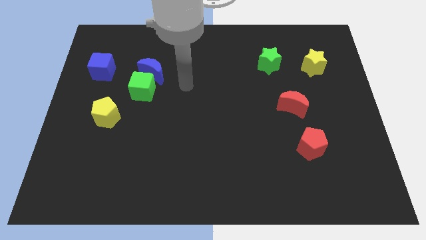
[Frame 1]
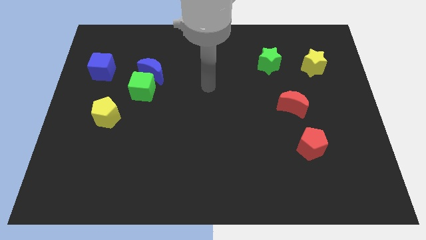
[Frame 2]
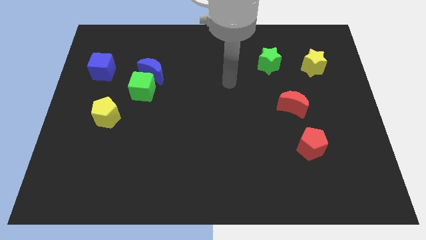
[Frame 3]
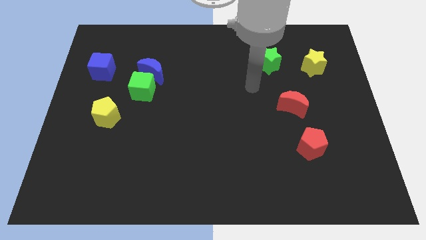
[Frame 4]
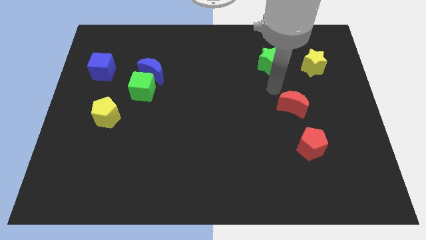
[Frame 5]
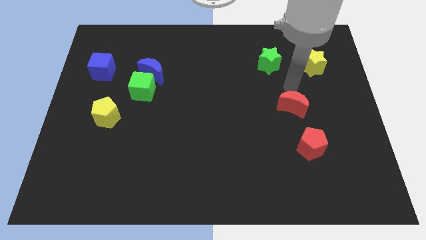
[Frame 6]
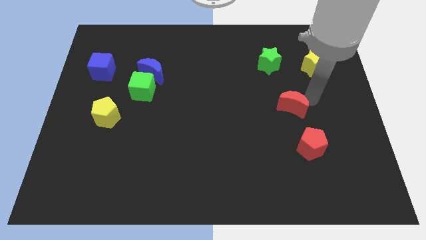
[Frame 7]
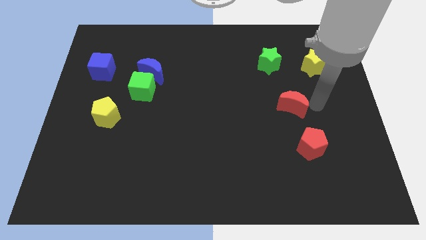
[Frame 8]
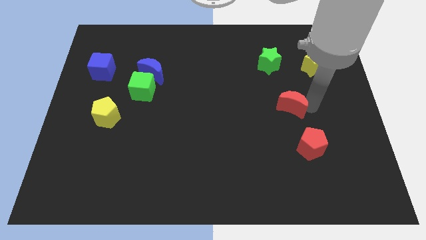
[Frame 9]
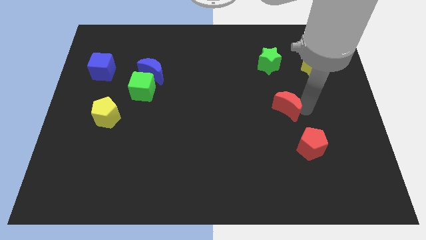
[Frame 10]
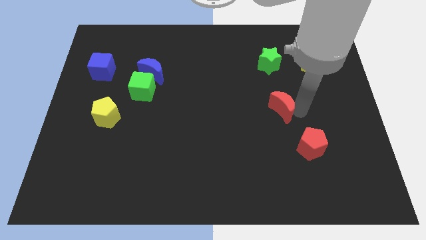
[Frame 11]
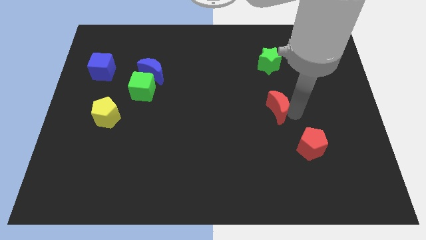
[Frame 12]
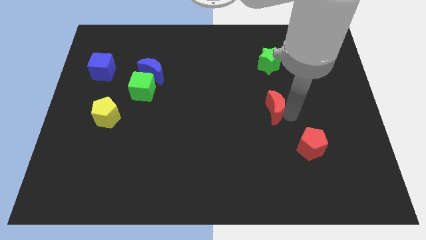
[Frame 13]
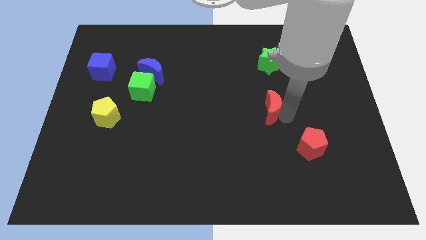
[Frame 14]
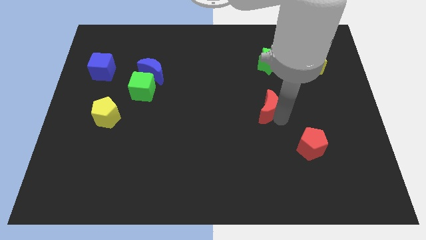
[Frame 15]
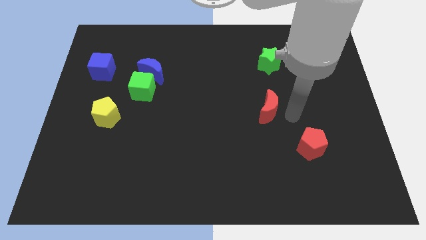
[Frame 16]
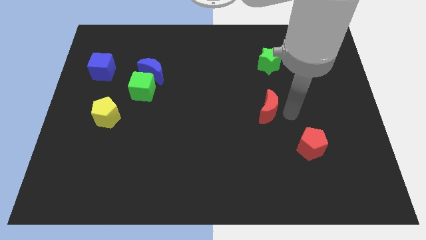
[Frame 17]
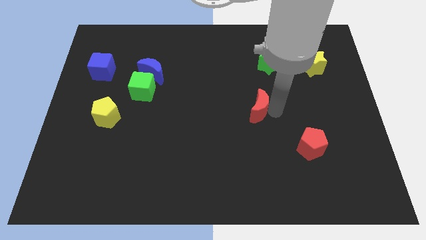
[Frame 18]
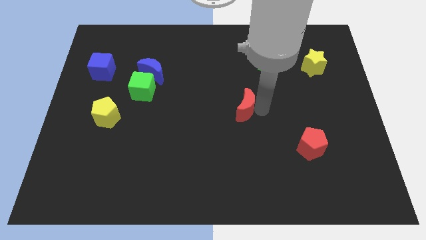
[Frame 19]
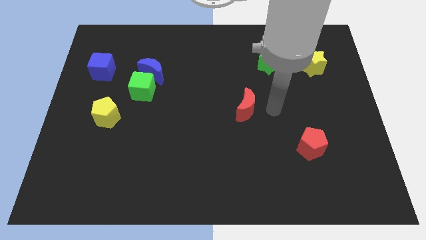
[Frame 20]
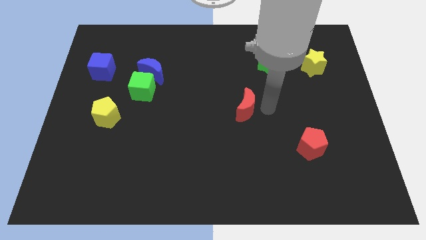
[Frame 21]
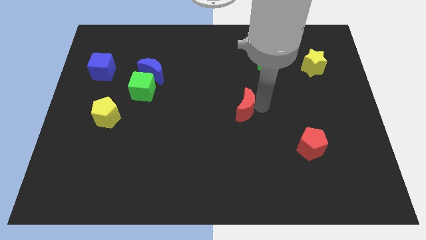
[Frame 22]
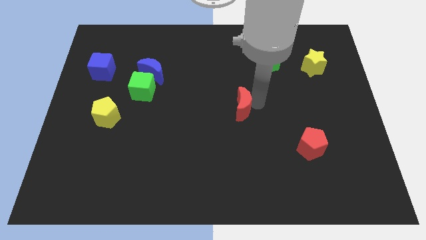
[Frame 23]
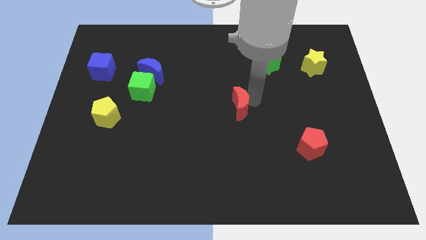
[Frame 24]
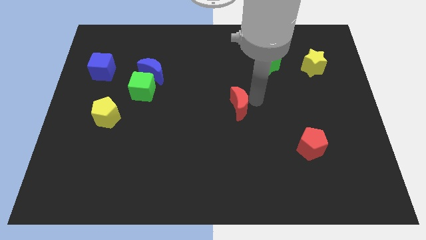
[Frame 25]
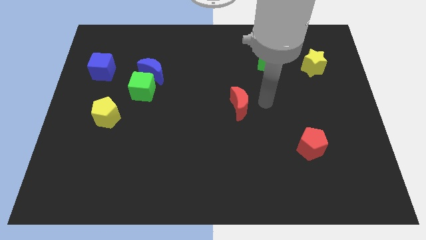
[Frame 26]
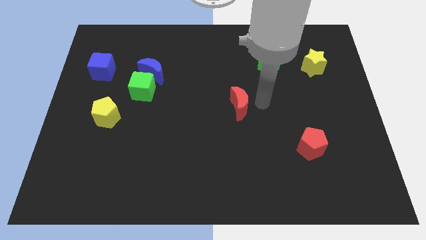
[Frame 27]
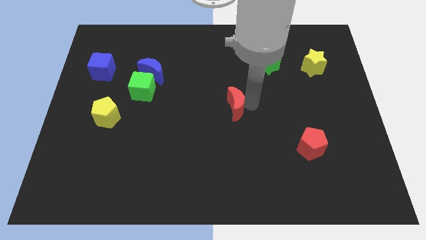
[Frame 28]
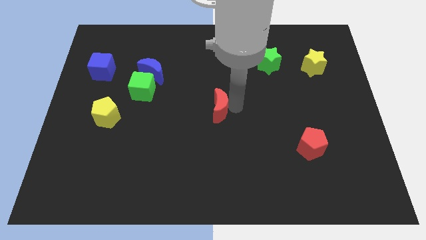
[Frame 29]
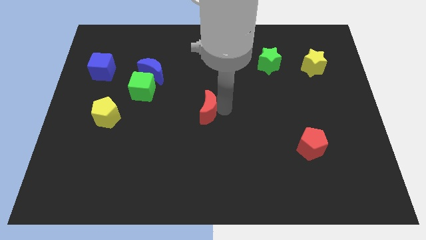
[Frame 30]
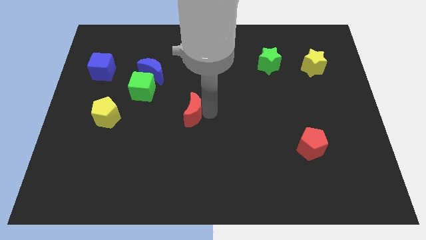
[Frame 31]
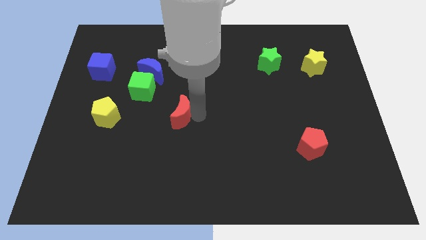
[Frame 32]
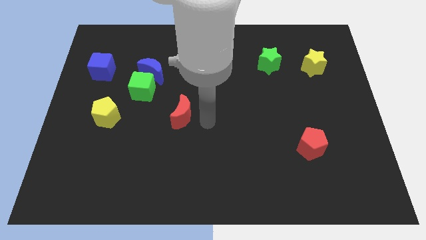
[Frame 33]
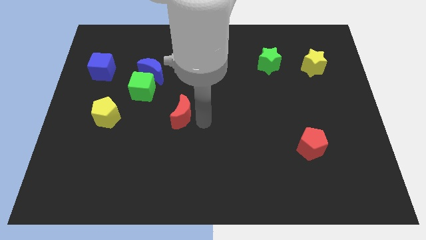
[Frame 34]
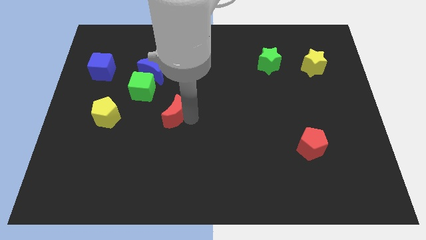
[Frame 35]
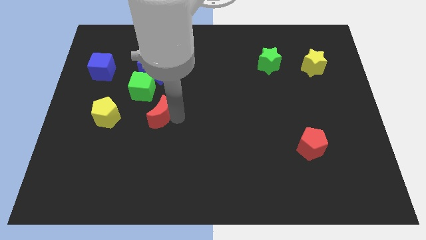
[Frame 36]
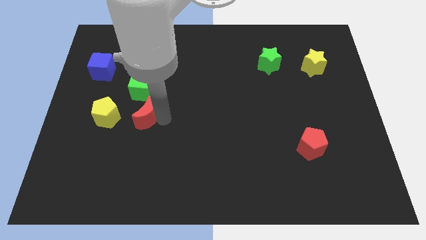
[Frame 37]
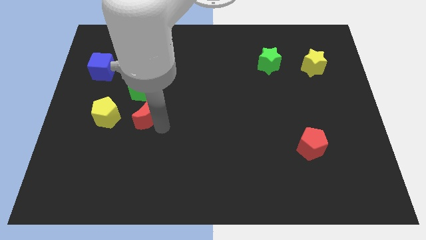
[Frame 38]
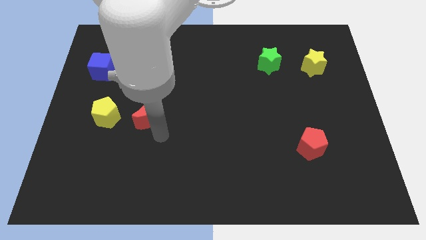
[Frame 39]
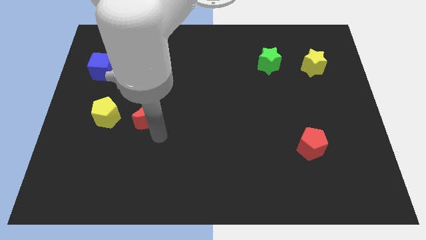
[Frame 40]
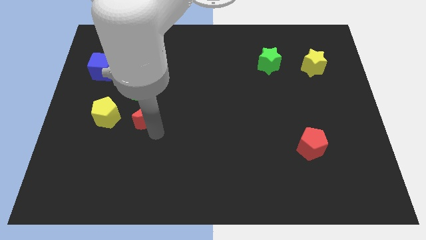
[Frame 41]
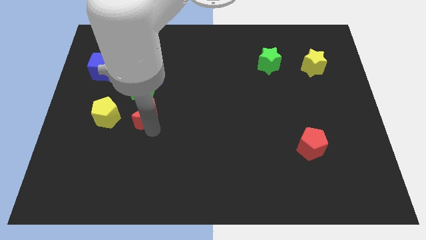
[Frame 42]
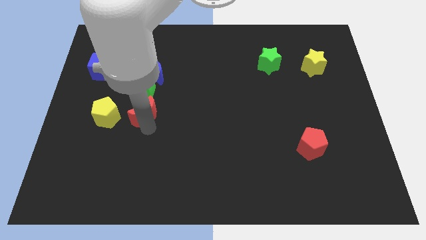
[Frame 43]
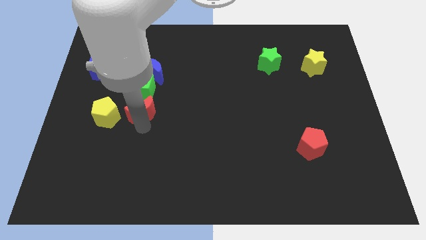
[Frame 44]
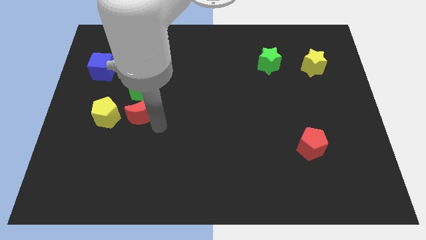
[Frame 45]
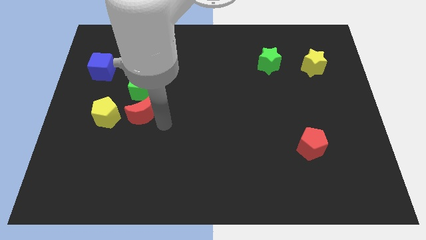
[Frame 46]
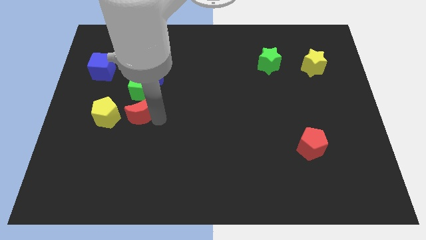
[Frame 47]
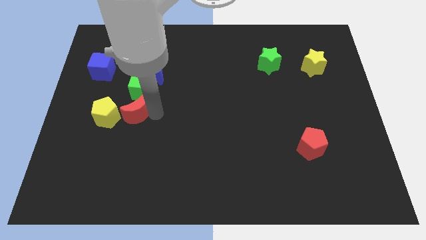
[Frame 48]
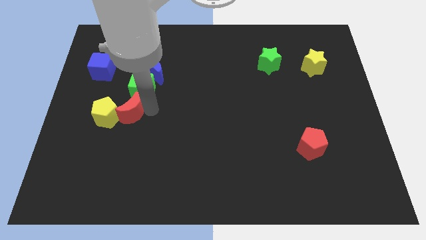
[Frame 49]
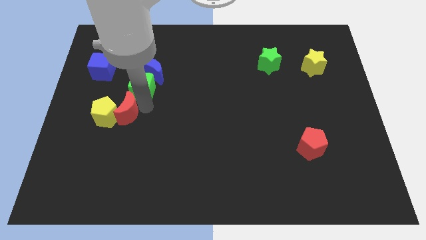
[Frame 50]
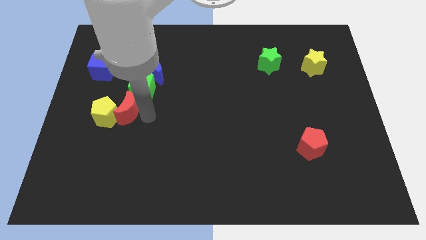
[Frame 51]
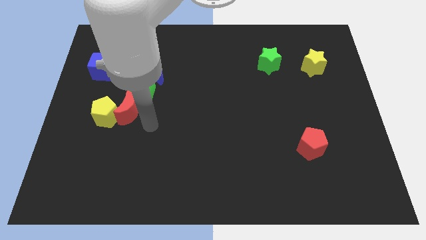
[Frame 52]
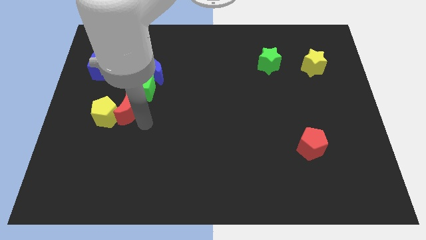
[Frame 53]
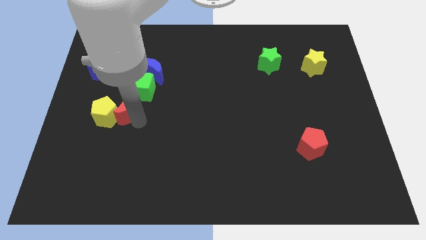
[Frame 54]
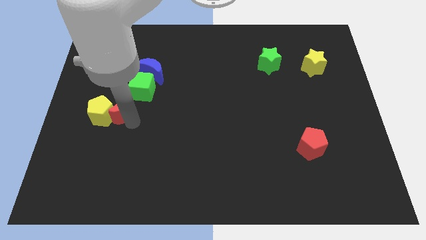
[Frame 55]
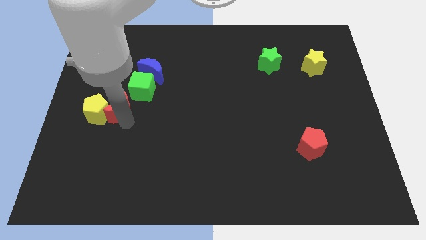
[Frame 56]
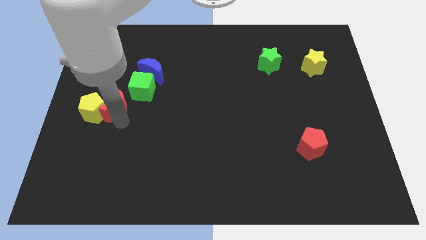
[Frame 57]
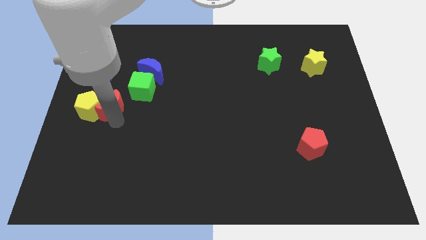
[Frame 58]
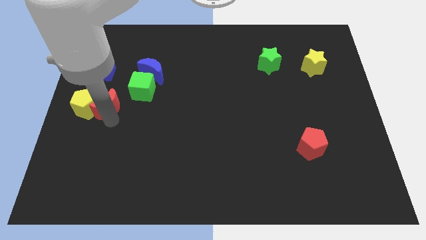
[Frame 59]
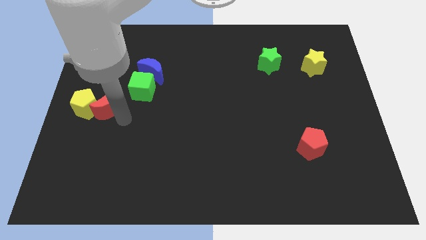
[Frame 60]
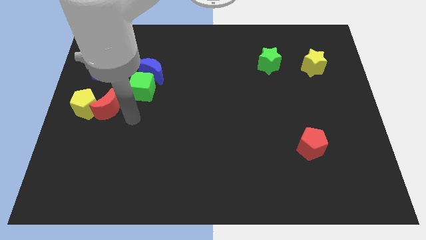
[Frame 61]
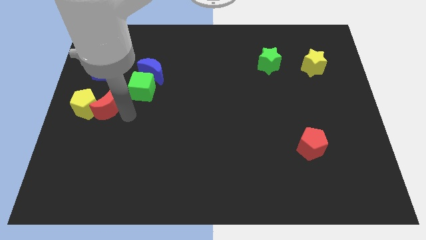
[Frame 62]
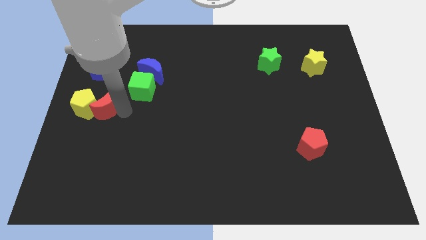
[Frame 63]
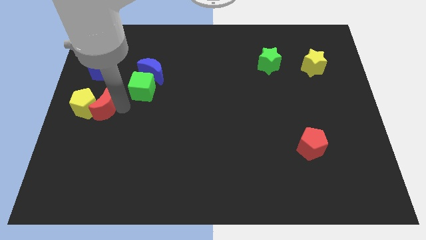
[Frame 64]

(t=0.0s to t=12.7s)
push the red moon to the left side
